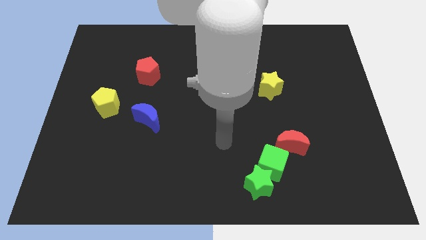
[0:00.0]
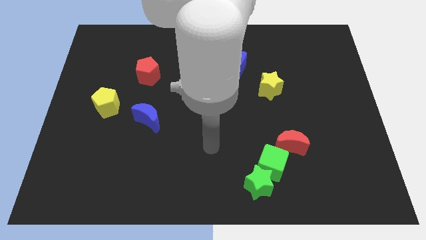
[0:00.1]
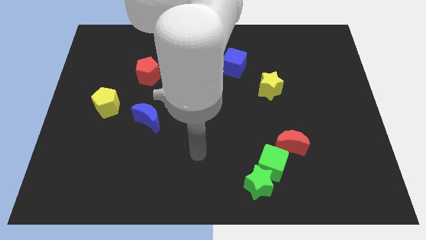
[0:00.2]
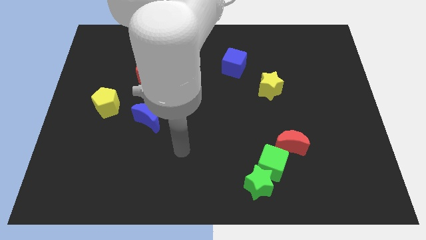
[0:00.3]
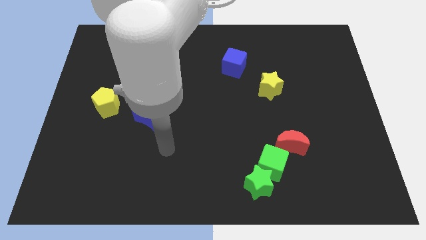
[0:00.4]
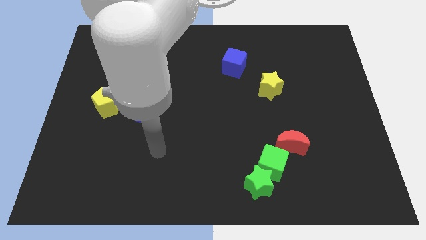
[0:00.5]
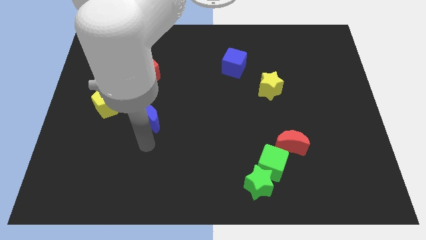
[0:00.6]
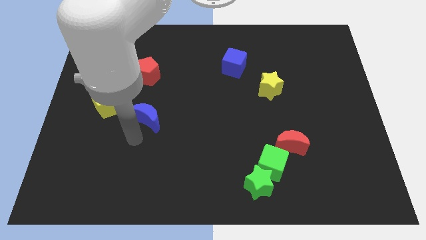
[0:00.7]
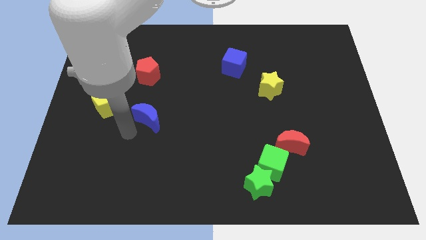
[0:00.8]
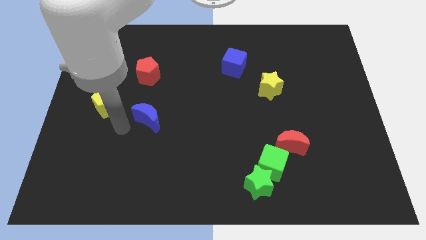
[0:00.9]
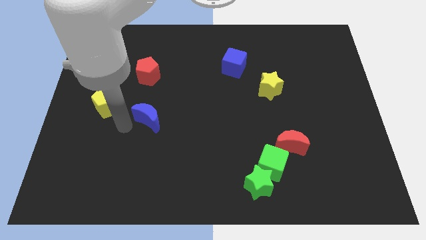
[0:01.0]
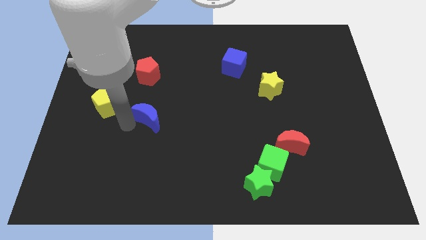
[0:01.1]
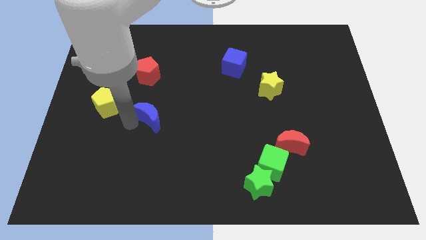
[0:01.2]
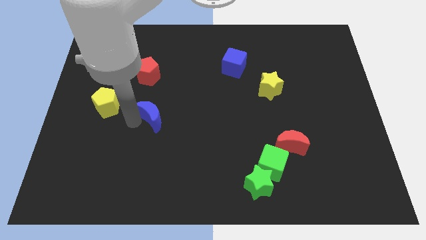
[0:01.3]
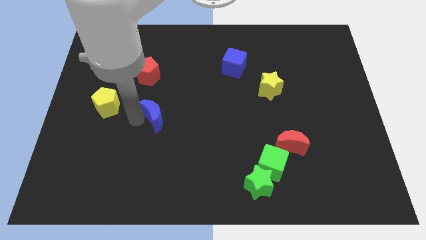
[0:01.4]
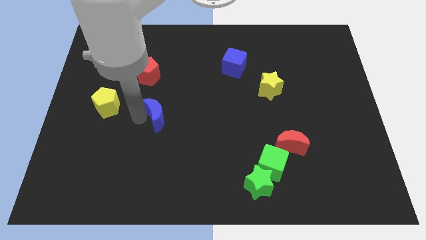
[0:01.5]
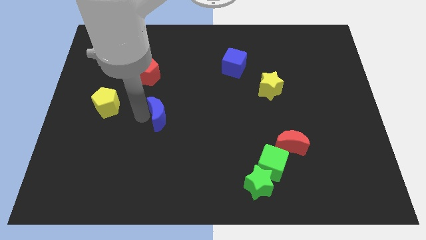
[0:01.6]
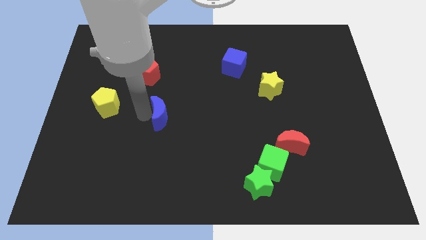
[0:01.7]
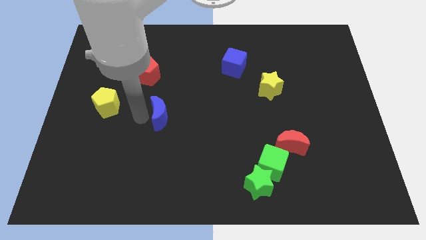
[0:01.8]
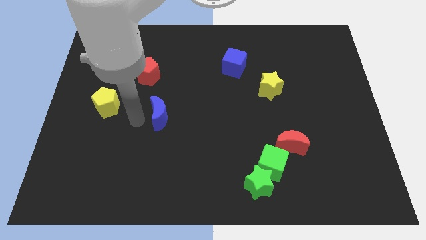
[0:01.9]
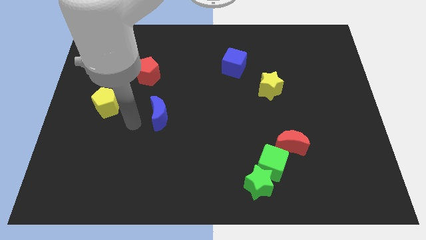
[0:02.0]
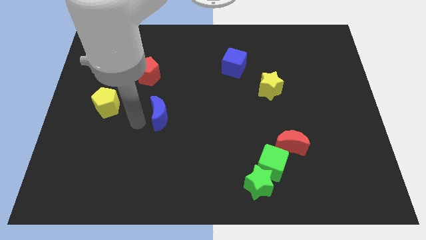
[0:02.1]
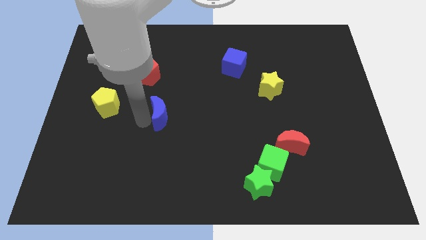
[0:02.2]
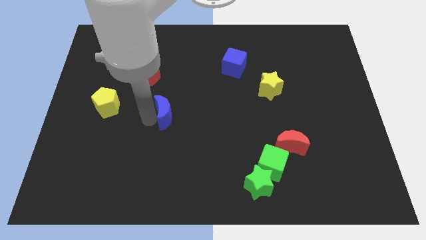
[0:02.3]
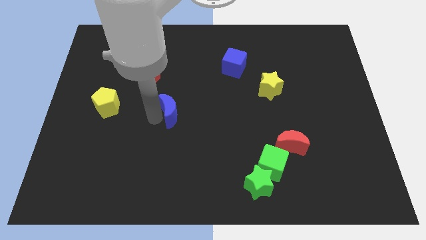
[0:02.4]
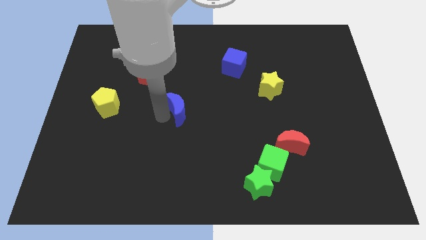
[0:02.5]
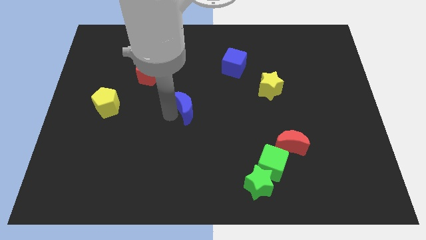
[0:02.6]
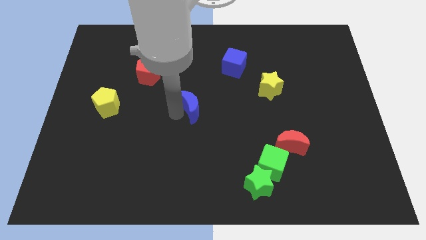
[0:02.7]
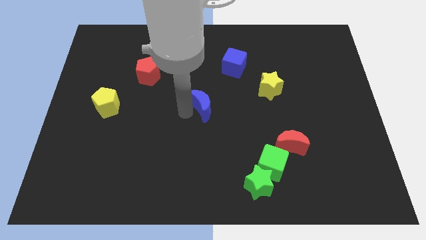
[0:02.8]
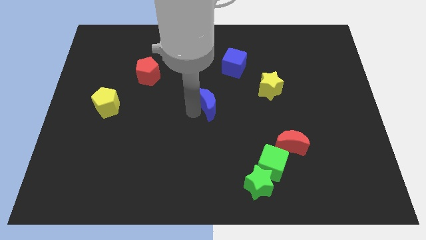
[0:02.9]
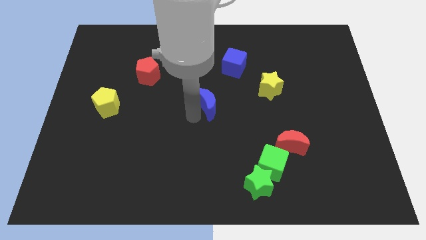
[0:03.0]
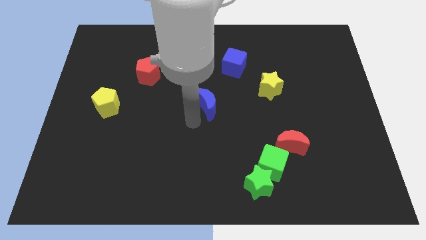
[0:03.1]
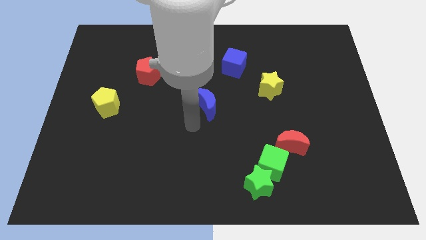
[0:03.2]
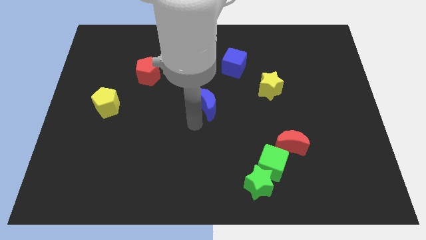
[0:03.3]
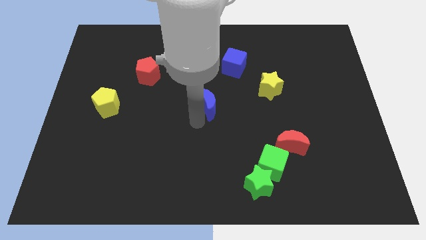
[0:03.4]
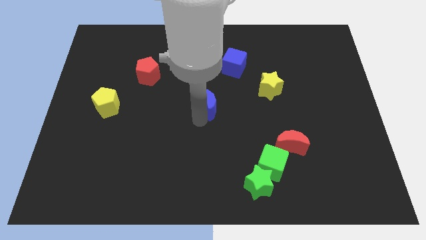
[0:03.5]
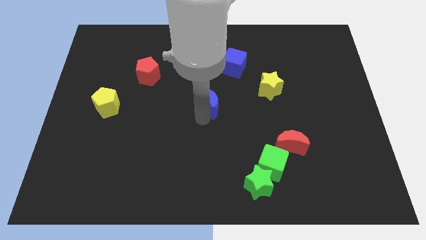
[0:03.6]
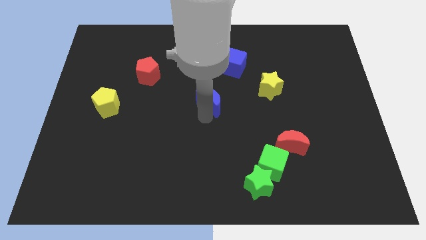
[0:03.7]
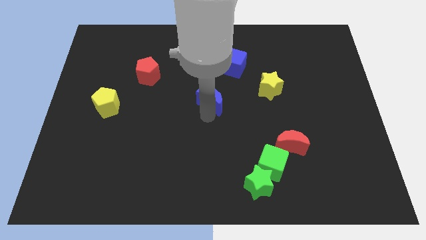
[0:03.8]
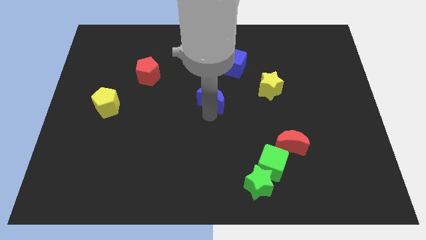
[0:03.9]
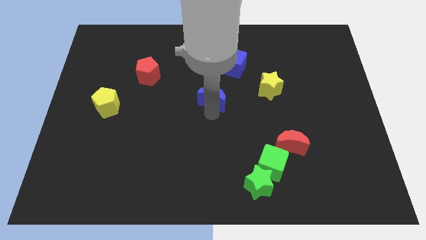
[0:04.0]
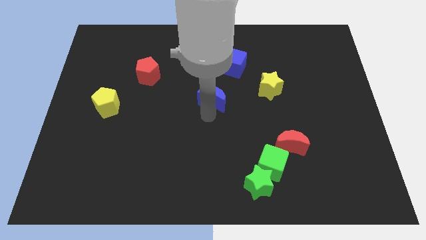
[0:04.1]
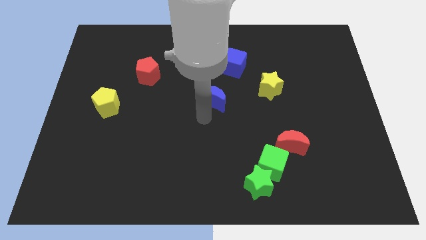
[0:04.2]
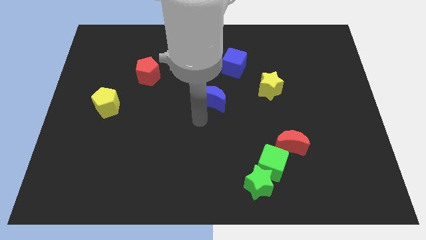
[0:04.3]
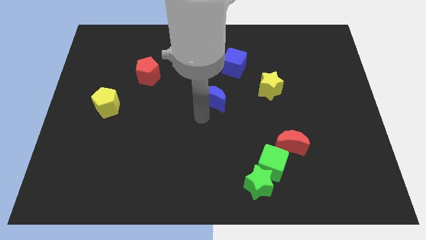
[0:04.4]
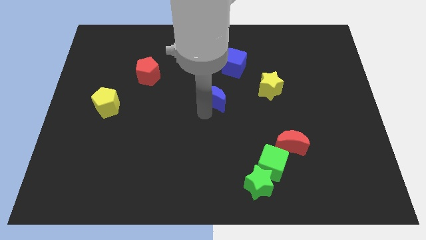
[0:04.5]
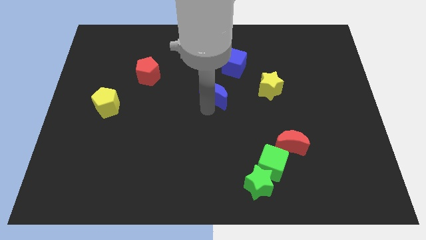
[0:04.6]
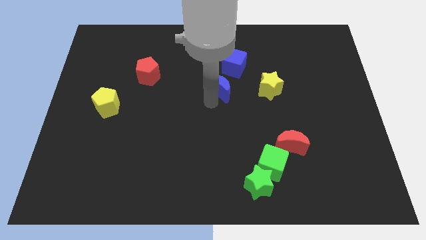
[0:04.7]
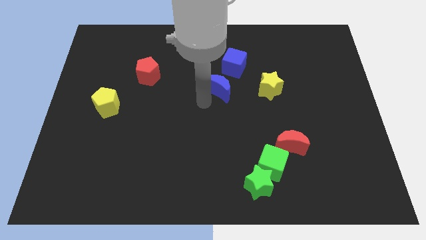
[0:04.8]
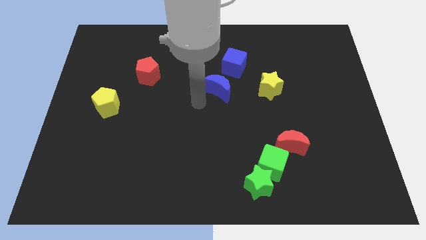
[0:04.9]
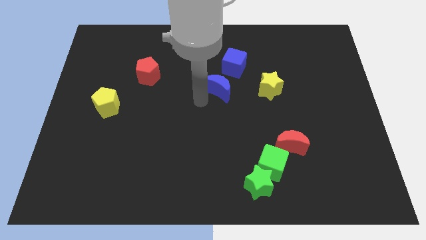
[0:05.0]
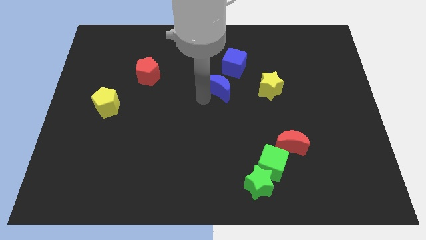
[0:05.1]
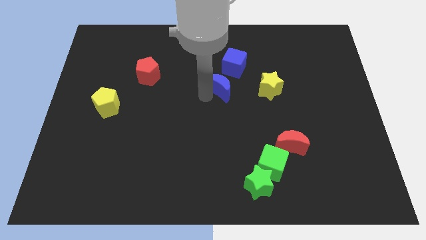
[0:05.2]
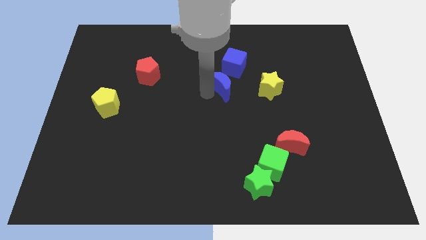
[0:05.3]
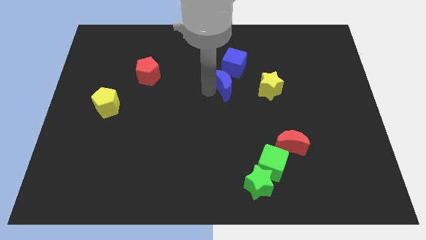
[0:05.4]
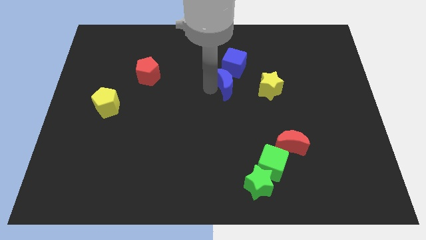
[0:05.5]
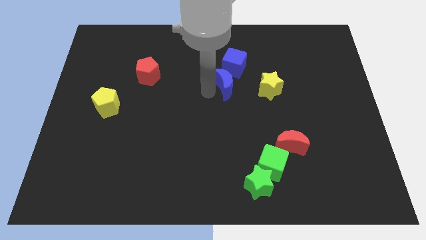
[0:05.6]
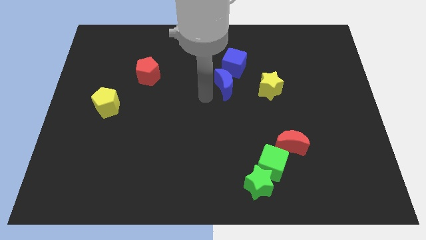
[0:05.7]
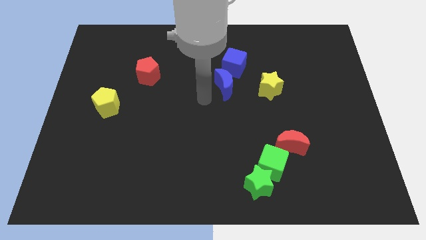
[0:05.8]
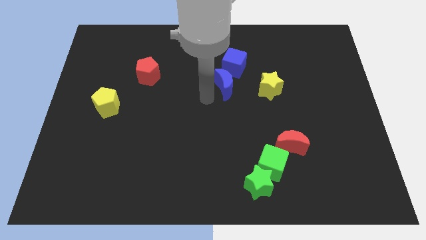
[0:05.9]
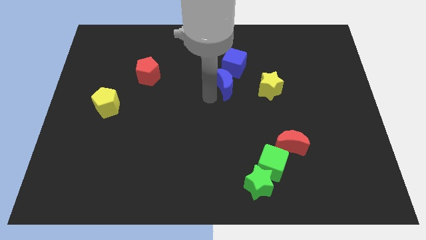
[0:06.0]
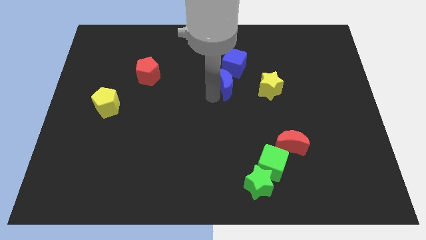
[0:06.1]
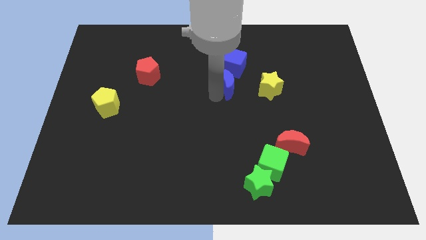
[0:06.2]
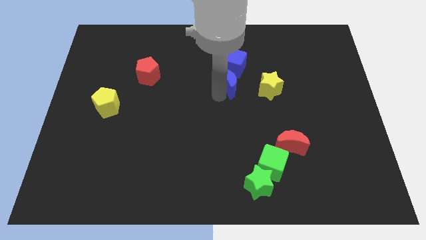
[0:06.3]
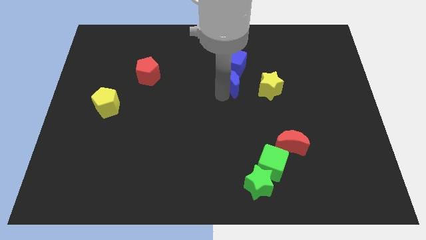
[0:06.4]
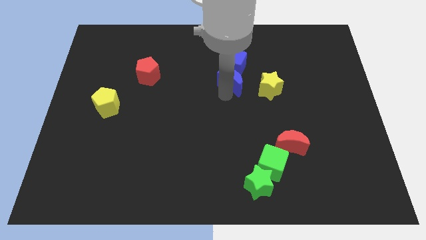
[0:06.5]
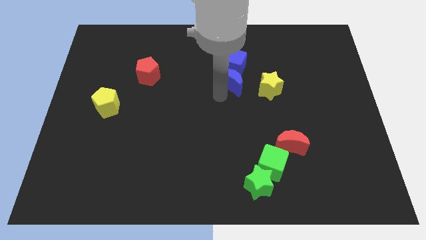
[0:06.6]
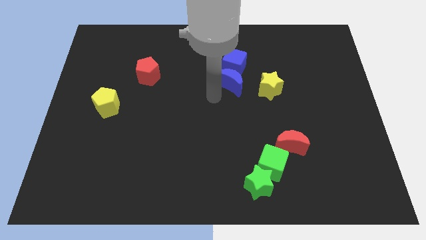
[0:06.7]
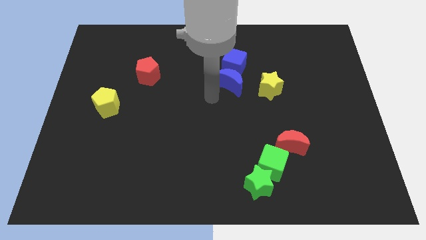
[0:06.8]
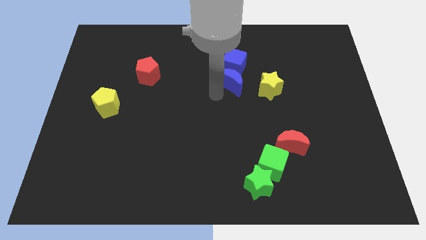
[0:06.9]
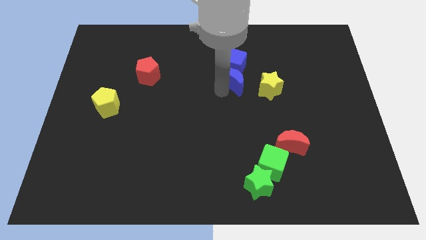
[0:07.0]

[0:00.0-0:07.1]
slide the blue moon diagonally up and to the left of the yellow star
